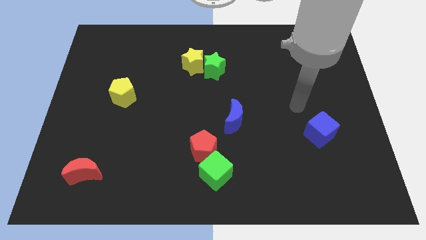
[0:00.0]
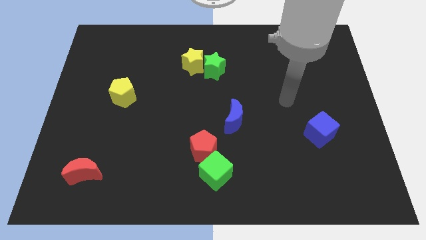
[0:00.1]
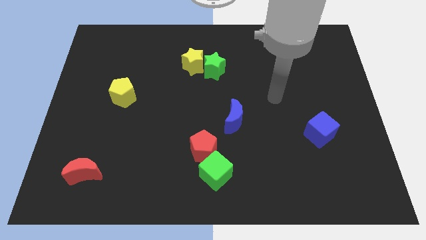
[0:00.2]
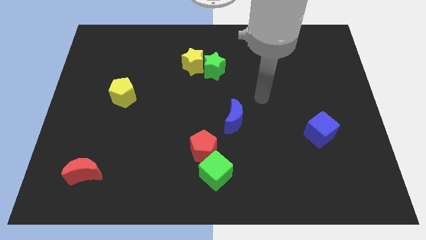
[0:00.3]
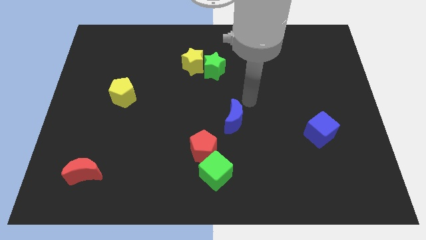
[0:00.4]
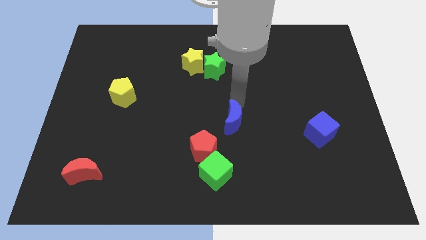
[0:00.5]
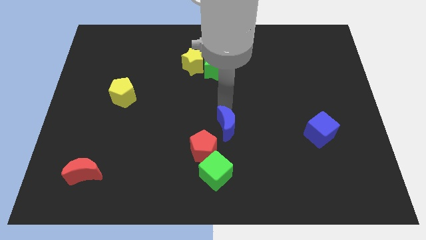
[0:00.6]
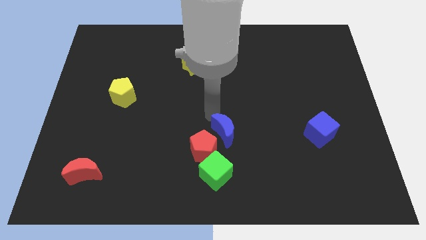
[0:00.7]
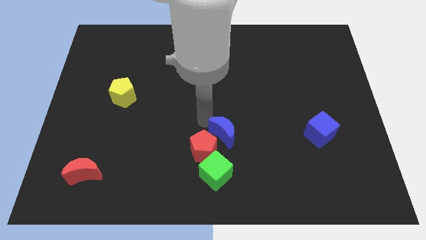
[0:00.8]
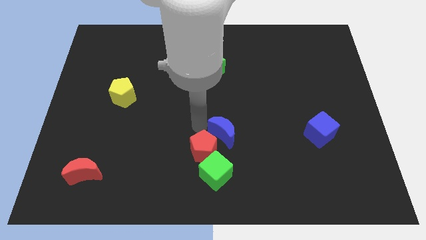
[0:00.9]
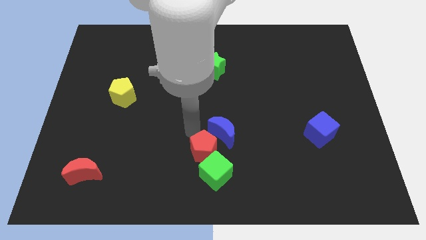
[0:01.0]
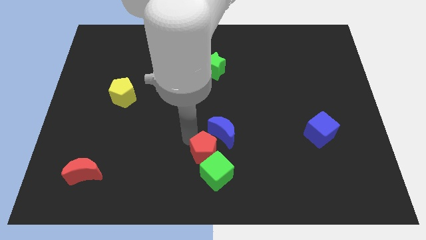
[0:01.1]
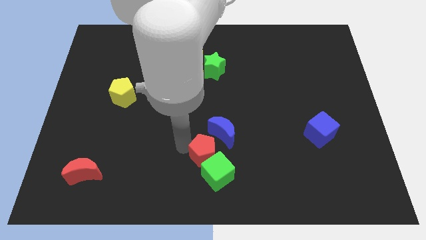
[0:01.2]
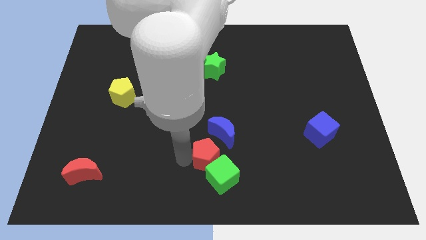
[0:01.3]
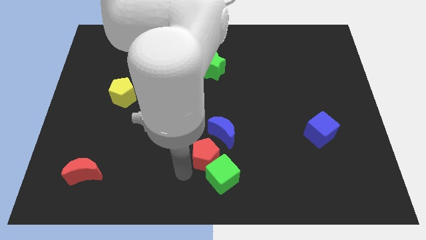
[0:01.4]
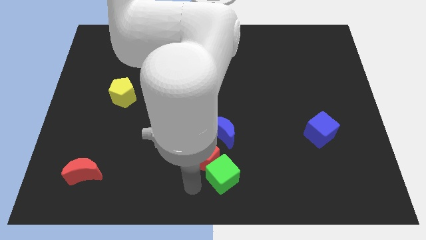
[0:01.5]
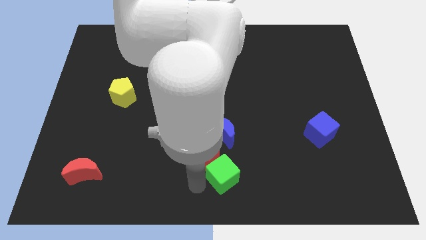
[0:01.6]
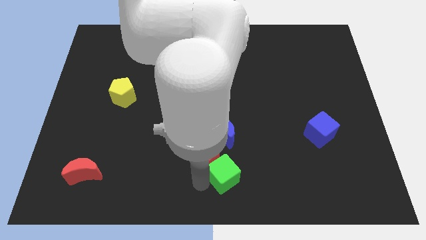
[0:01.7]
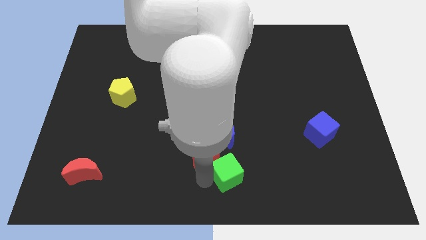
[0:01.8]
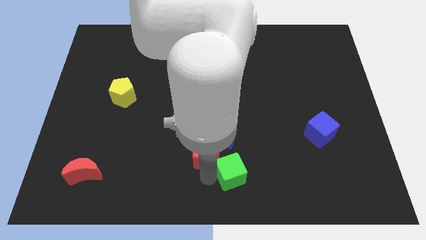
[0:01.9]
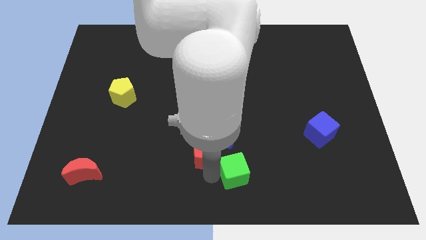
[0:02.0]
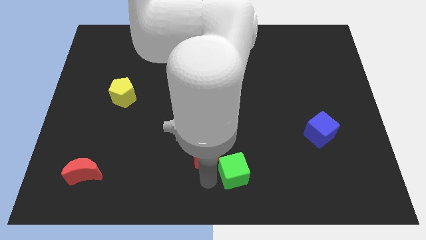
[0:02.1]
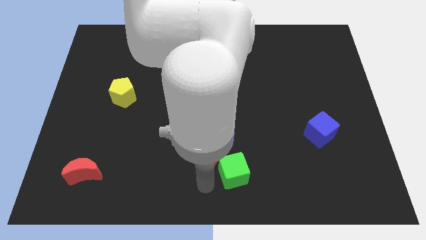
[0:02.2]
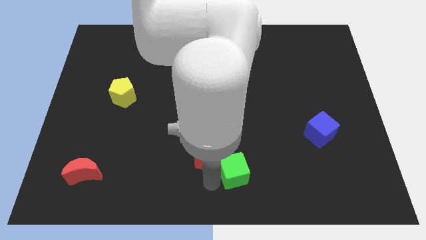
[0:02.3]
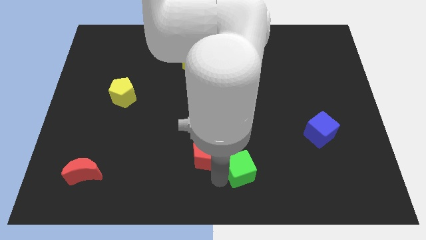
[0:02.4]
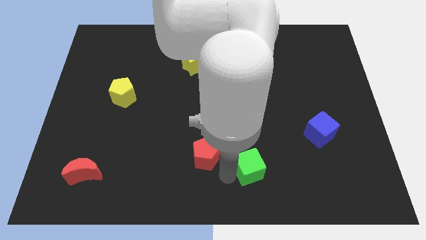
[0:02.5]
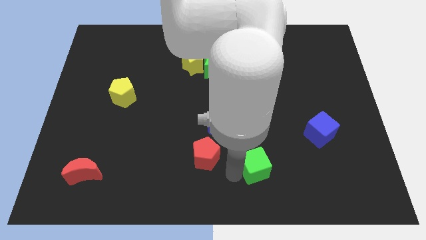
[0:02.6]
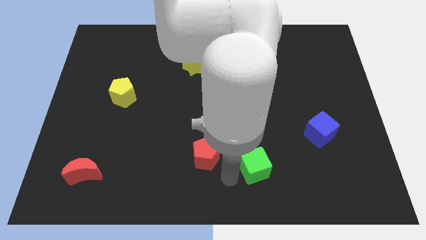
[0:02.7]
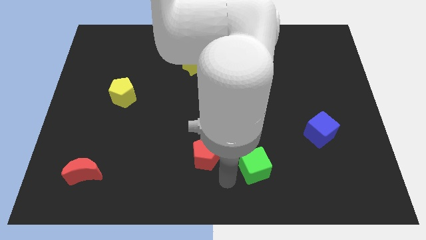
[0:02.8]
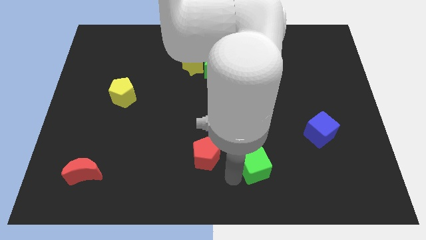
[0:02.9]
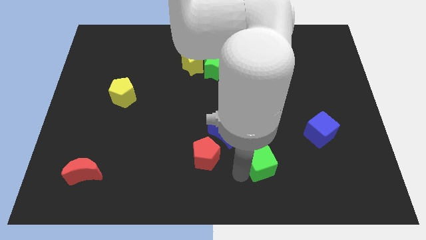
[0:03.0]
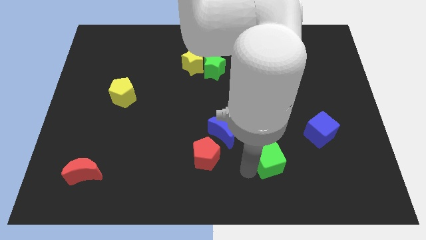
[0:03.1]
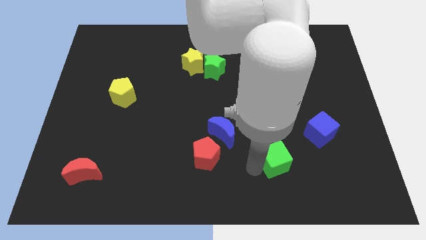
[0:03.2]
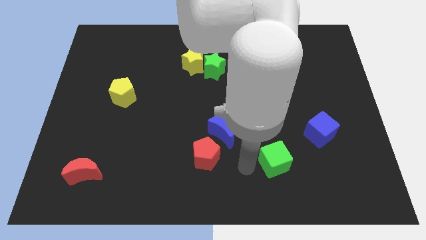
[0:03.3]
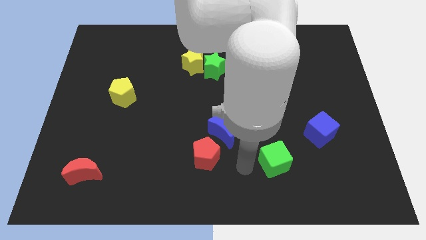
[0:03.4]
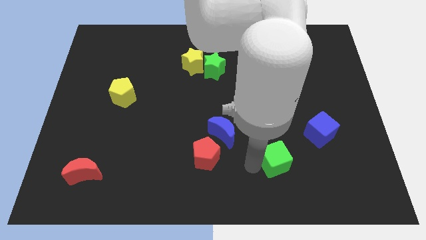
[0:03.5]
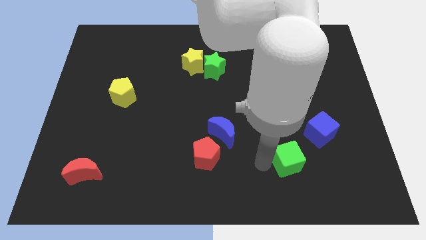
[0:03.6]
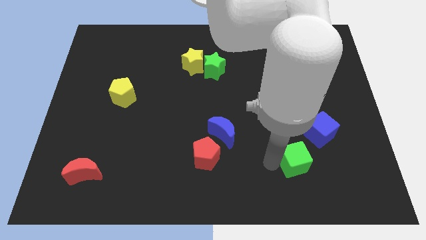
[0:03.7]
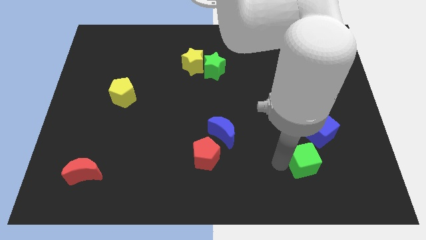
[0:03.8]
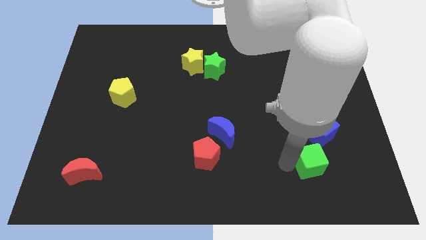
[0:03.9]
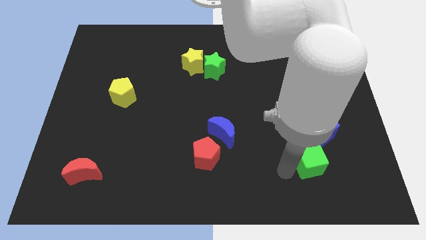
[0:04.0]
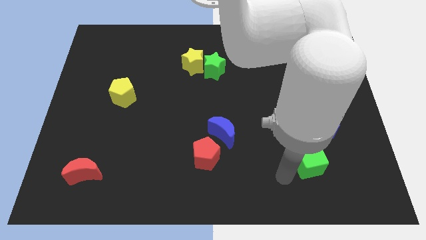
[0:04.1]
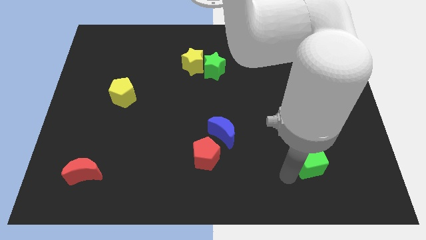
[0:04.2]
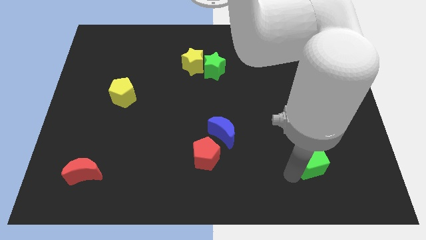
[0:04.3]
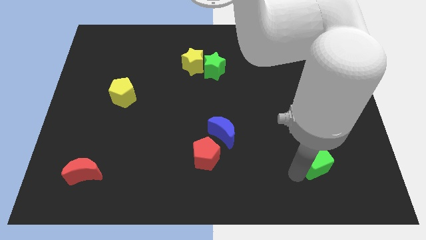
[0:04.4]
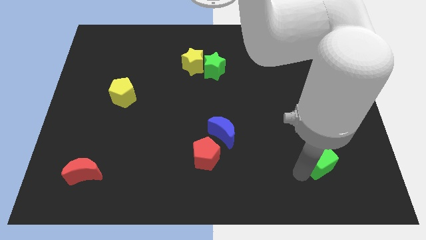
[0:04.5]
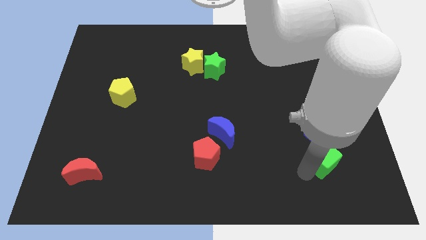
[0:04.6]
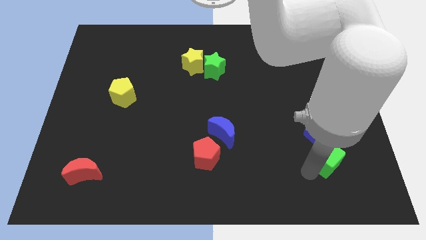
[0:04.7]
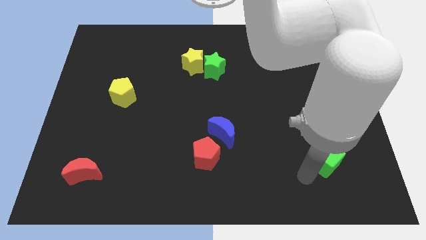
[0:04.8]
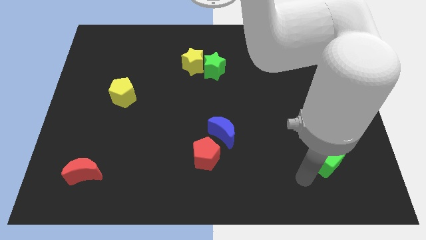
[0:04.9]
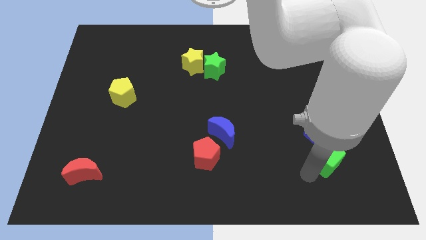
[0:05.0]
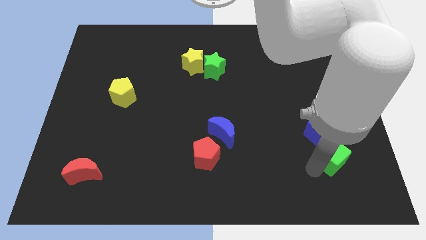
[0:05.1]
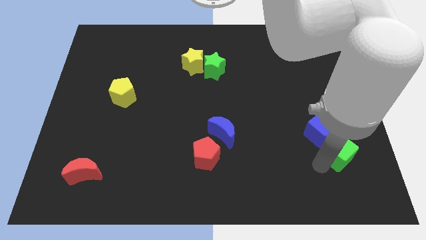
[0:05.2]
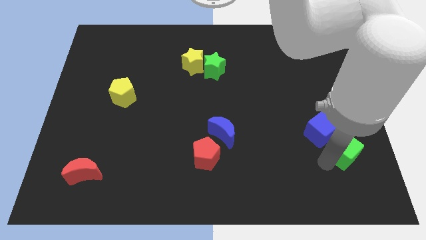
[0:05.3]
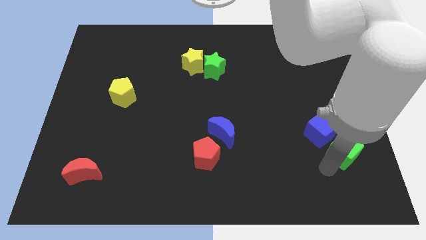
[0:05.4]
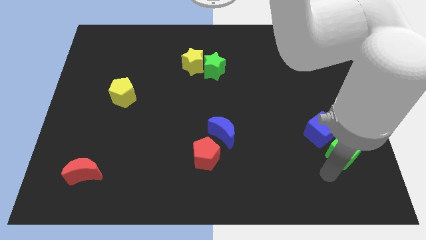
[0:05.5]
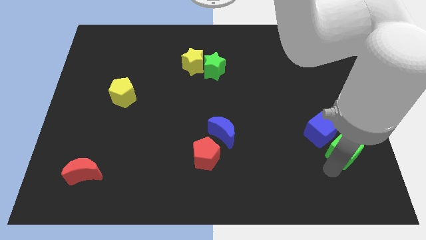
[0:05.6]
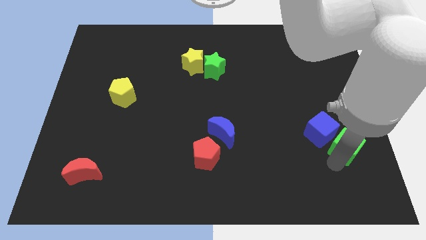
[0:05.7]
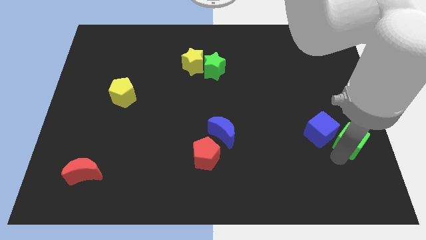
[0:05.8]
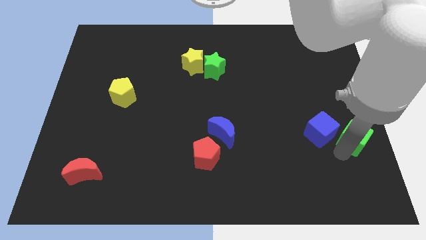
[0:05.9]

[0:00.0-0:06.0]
push the green cube to the center right

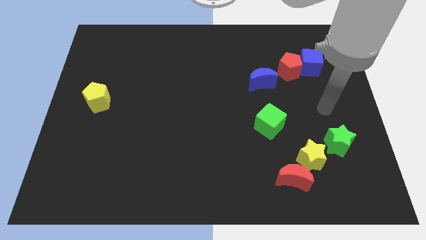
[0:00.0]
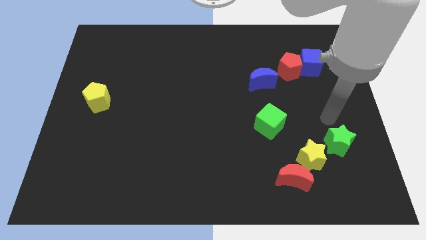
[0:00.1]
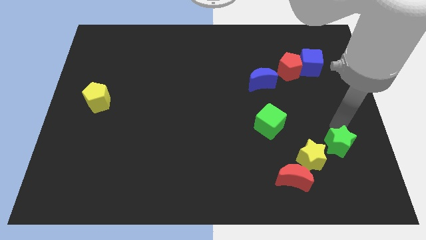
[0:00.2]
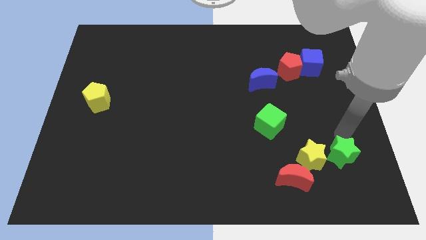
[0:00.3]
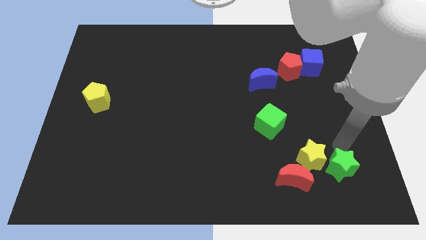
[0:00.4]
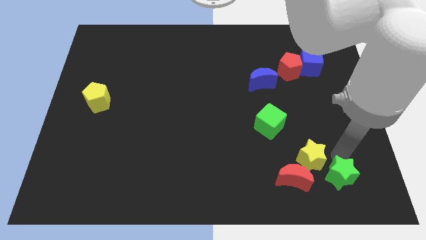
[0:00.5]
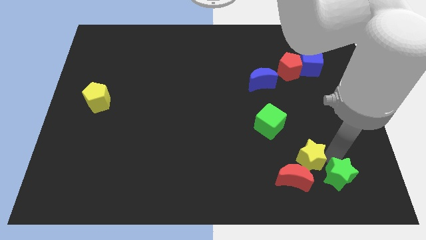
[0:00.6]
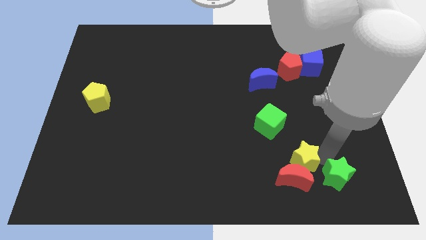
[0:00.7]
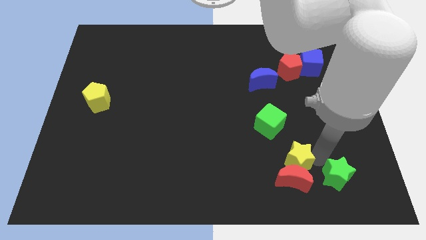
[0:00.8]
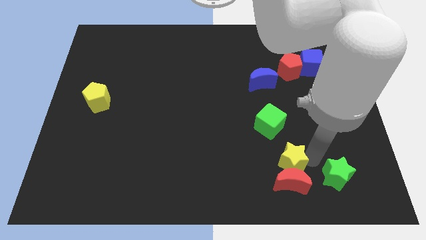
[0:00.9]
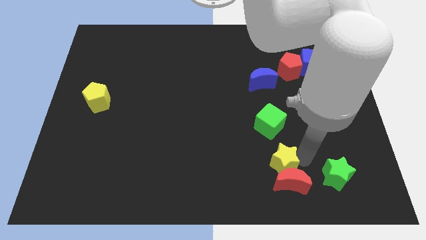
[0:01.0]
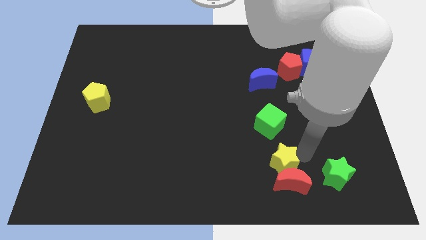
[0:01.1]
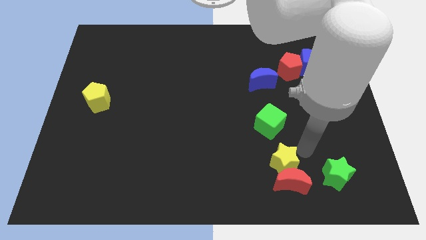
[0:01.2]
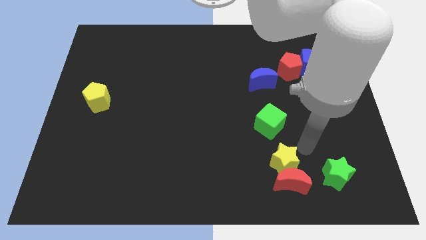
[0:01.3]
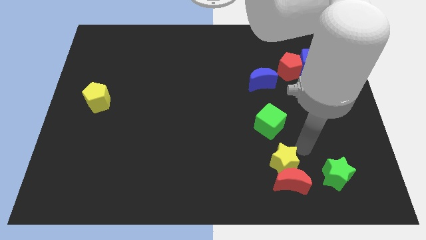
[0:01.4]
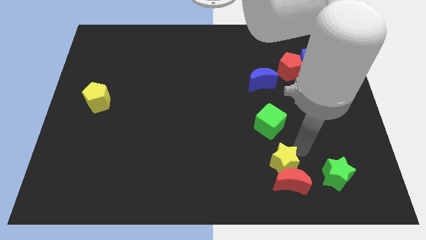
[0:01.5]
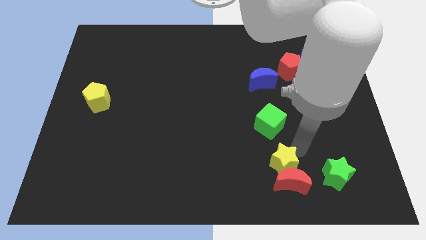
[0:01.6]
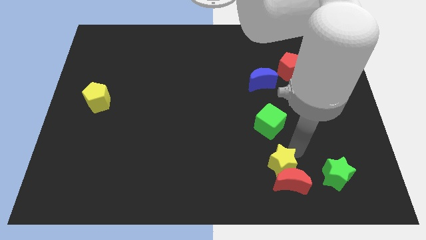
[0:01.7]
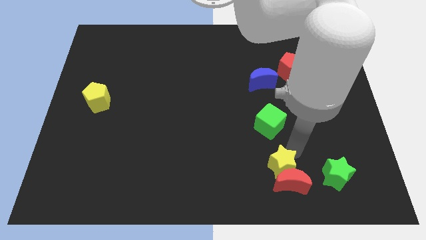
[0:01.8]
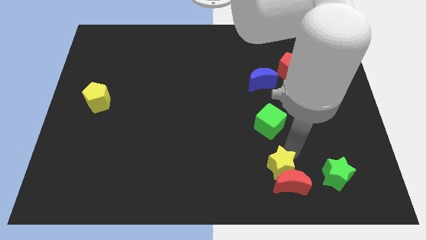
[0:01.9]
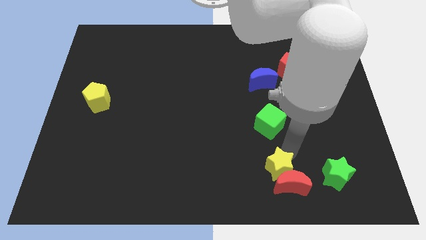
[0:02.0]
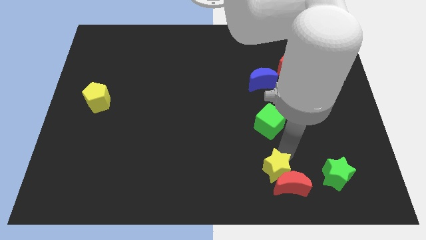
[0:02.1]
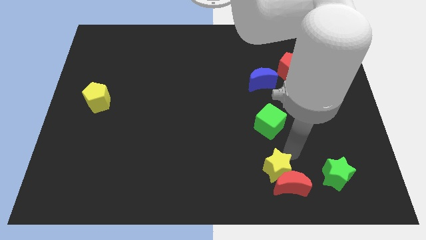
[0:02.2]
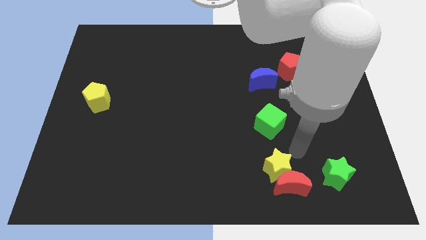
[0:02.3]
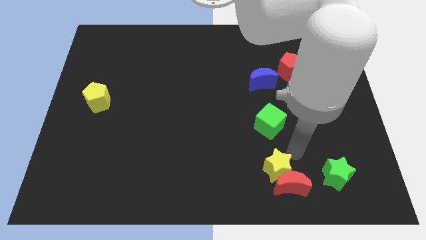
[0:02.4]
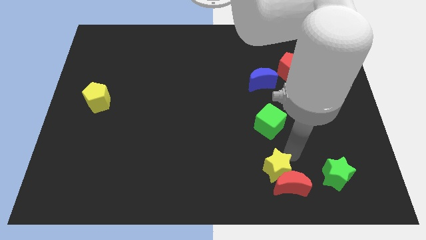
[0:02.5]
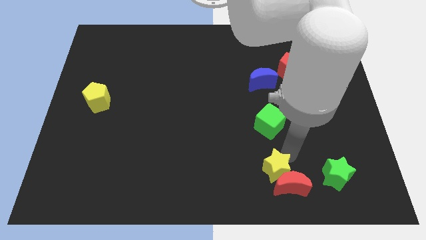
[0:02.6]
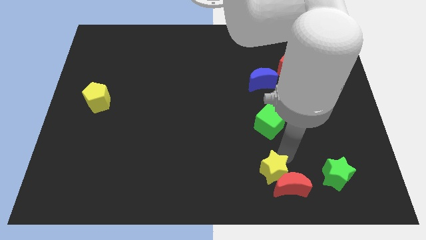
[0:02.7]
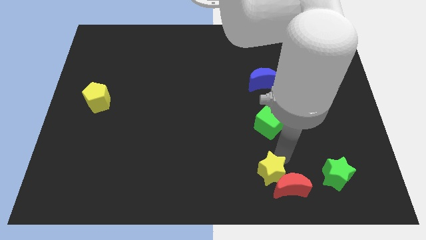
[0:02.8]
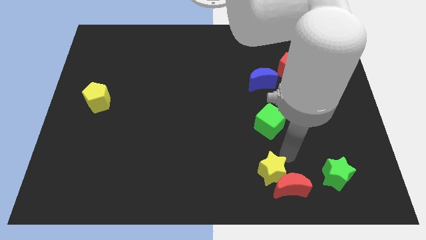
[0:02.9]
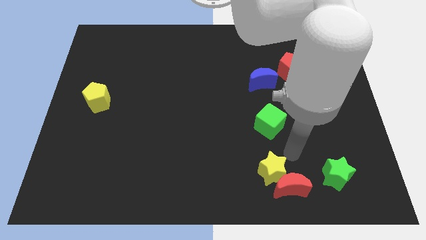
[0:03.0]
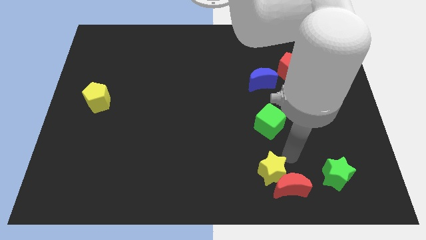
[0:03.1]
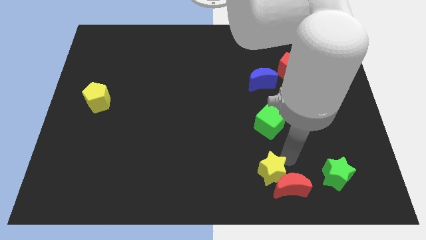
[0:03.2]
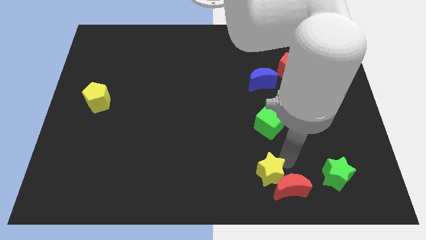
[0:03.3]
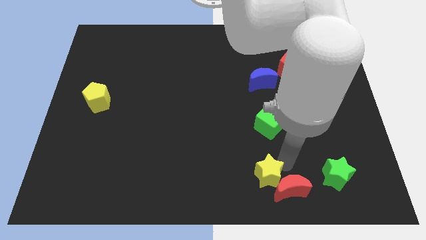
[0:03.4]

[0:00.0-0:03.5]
move the yellow star to the bottom side
